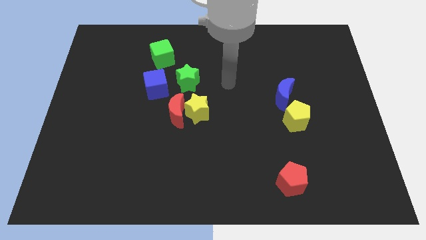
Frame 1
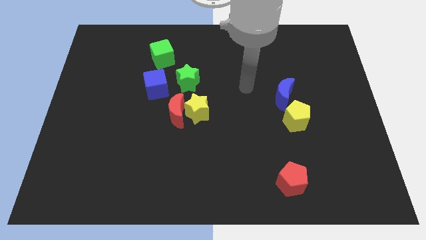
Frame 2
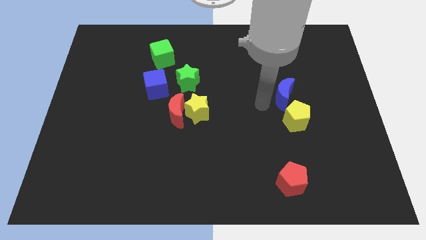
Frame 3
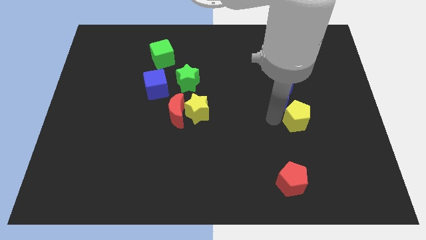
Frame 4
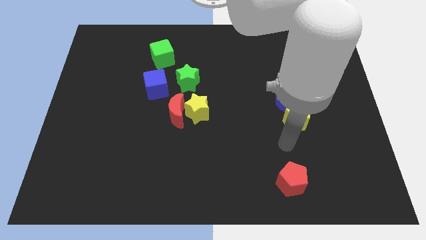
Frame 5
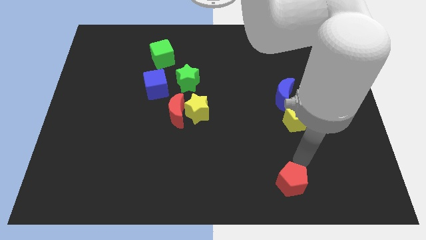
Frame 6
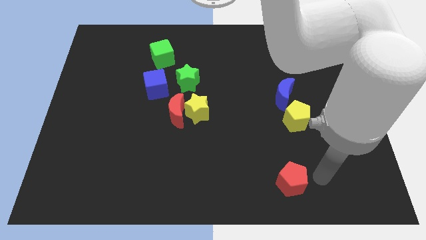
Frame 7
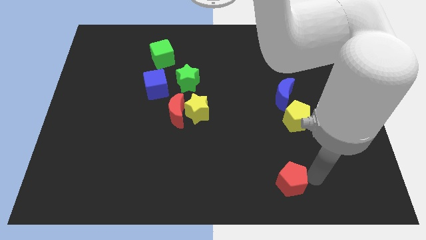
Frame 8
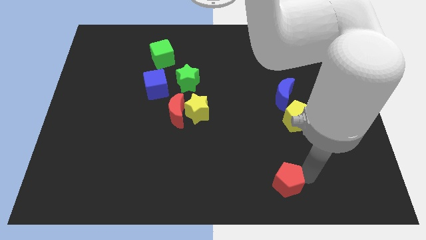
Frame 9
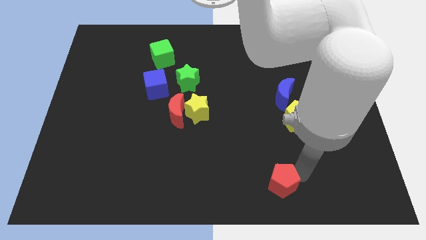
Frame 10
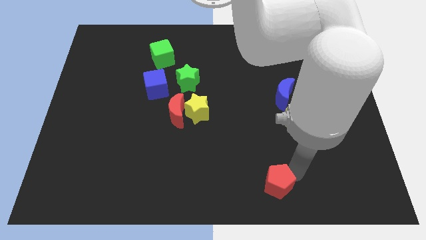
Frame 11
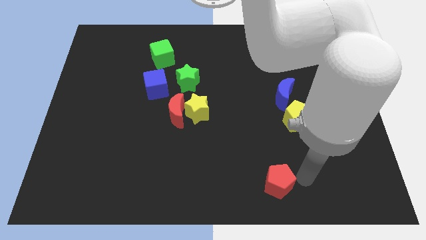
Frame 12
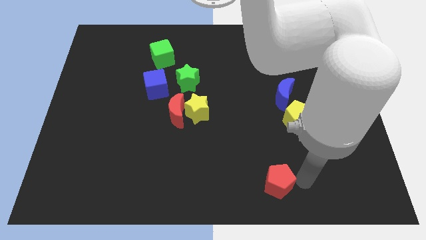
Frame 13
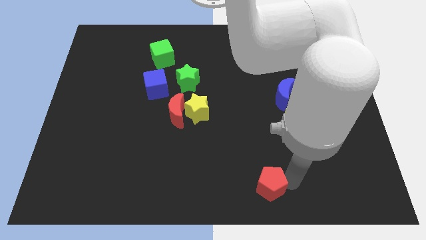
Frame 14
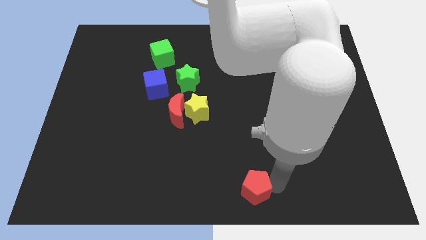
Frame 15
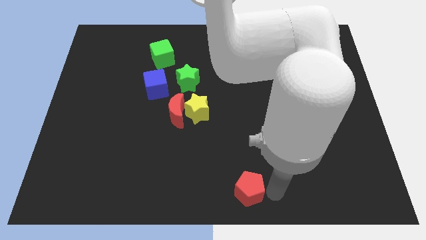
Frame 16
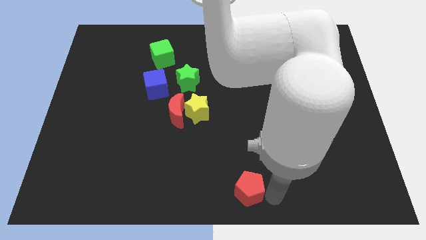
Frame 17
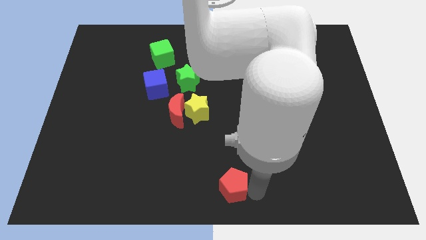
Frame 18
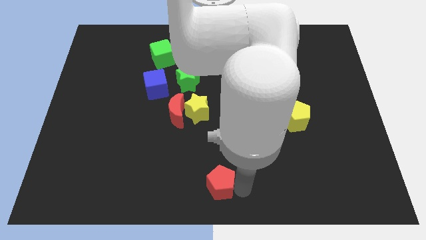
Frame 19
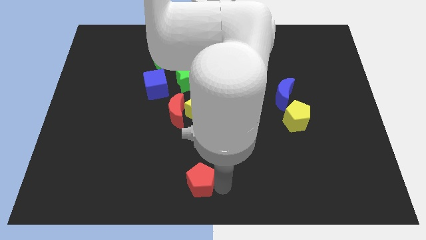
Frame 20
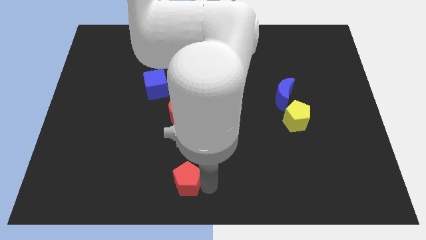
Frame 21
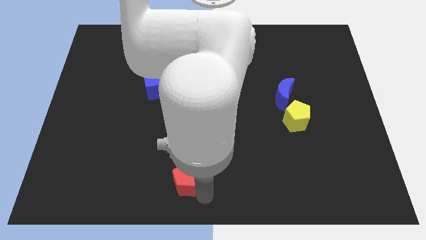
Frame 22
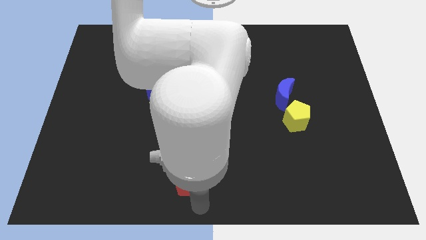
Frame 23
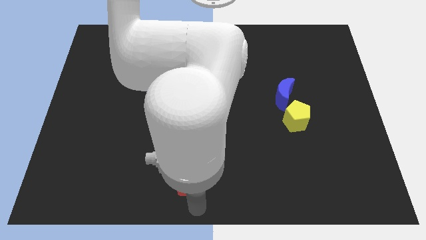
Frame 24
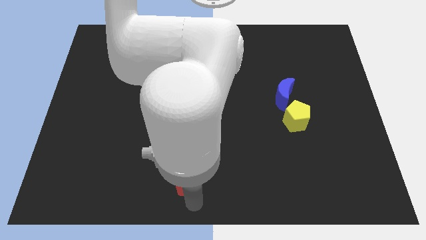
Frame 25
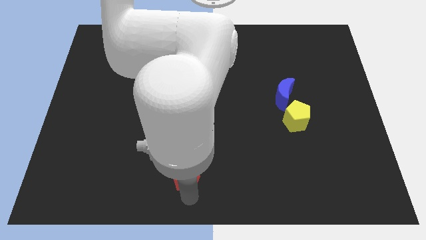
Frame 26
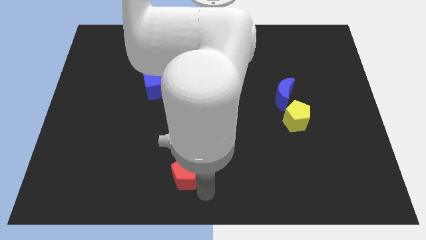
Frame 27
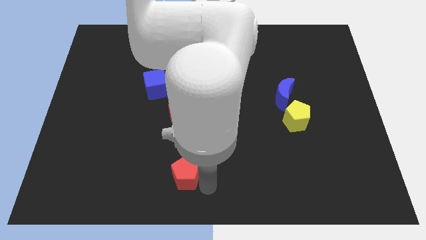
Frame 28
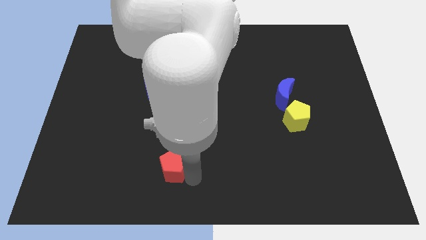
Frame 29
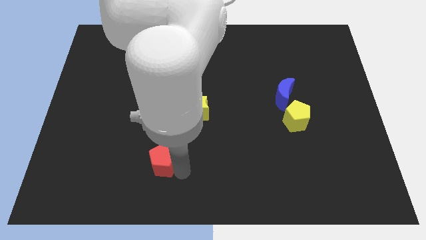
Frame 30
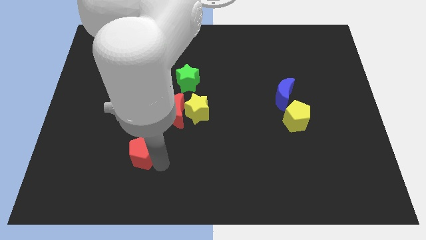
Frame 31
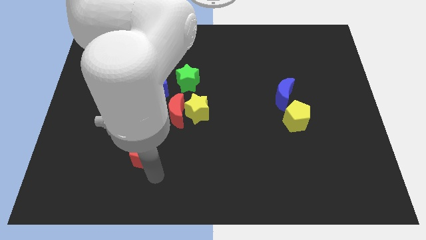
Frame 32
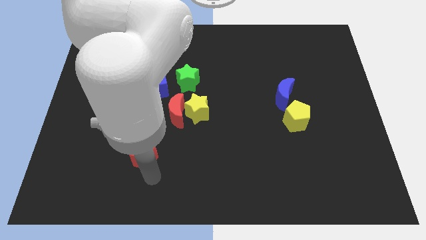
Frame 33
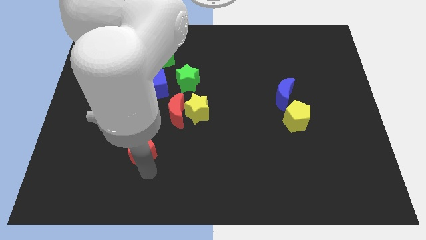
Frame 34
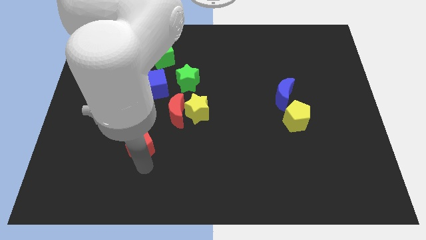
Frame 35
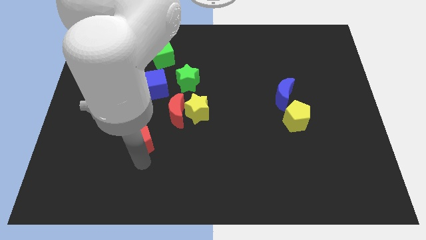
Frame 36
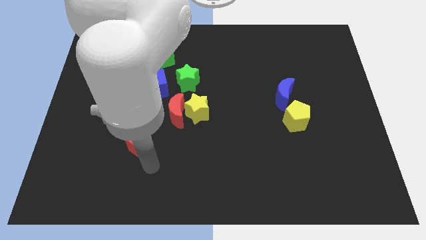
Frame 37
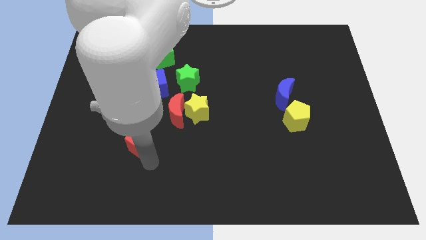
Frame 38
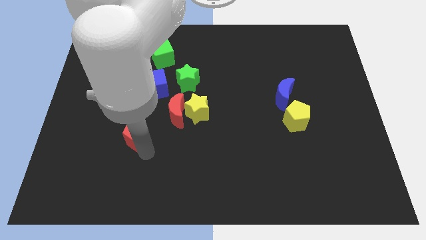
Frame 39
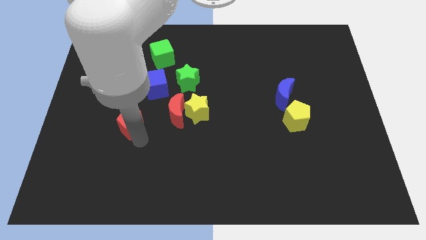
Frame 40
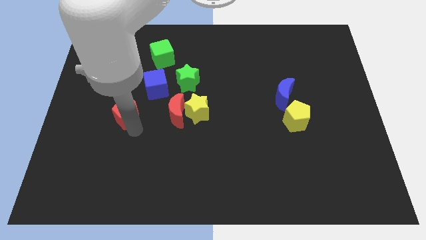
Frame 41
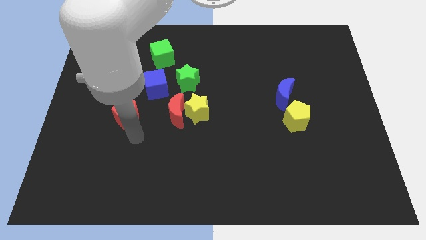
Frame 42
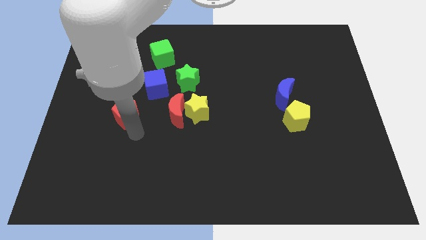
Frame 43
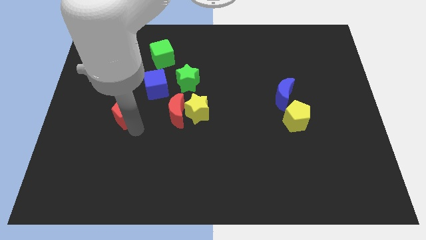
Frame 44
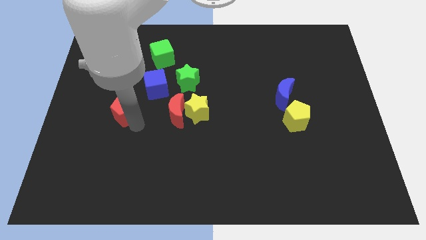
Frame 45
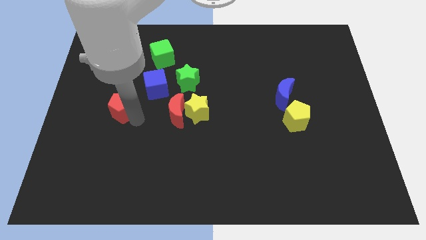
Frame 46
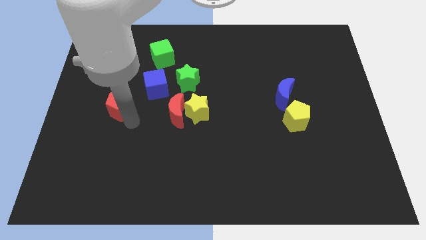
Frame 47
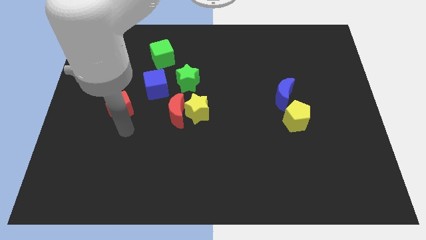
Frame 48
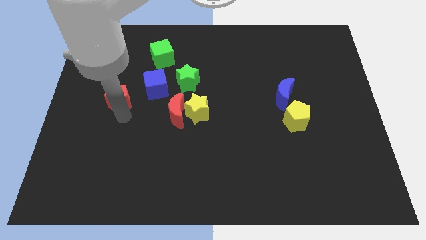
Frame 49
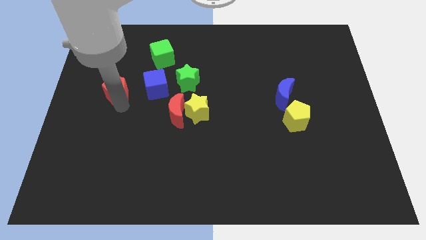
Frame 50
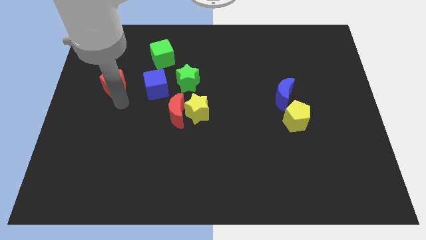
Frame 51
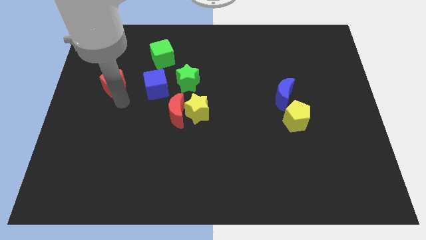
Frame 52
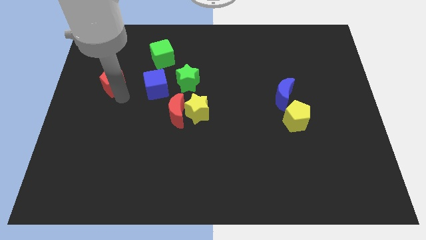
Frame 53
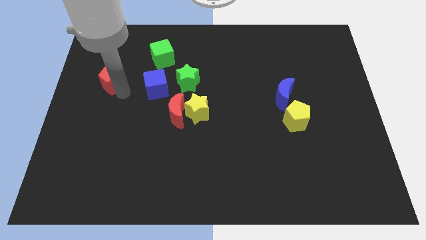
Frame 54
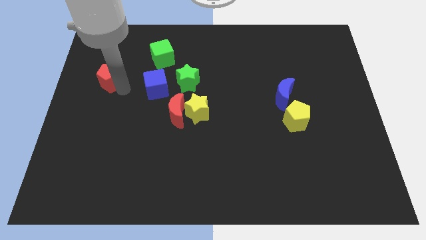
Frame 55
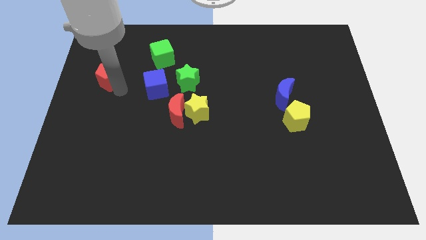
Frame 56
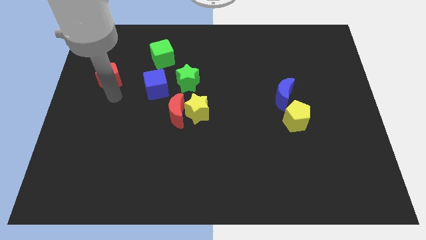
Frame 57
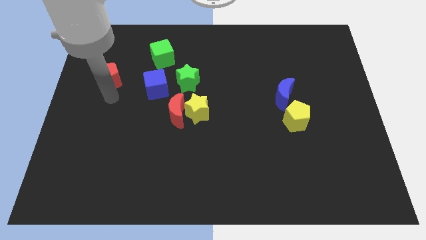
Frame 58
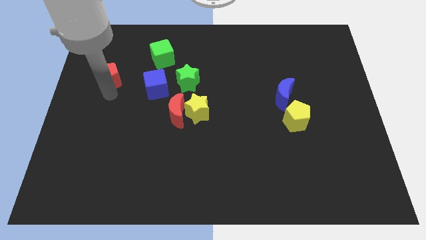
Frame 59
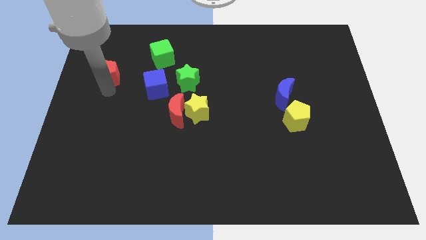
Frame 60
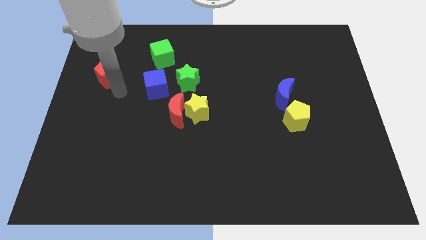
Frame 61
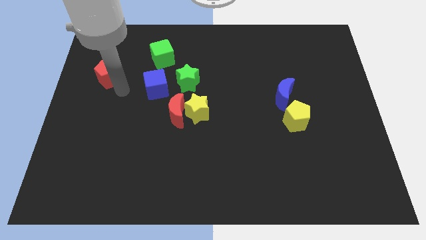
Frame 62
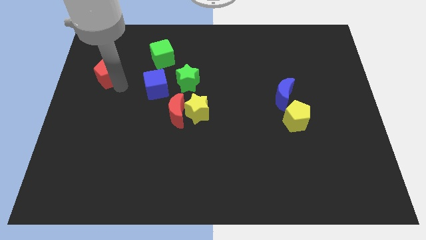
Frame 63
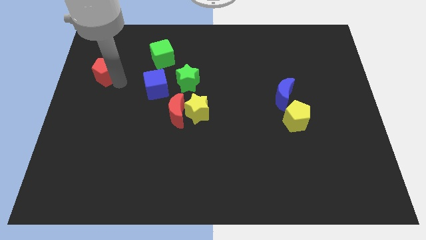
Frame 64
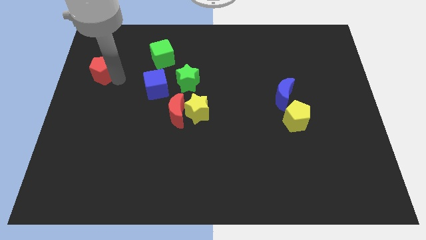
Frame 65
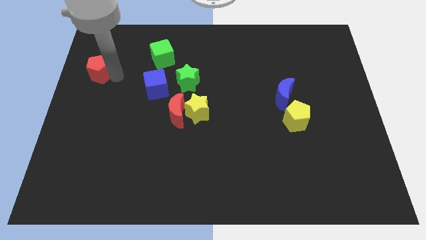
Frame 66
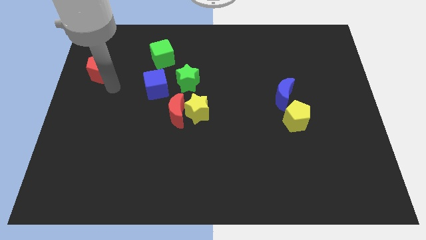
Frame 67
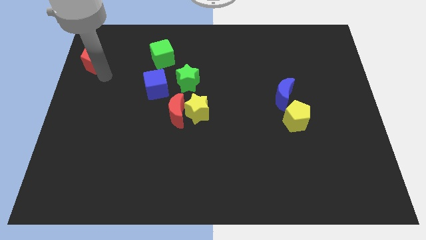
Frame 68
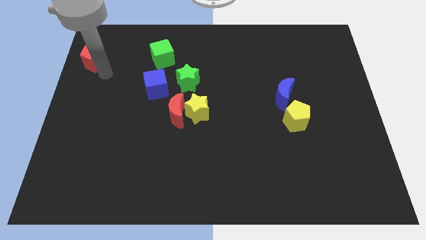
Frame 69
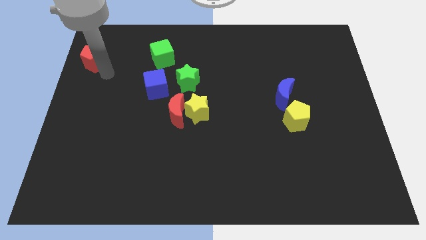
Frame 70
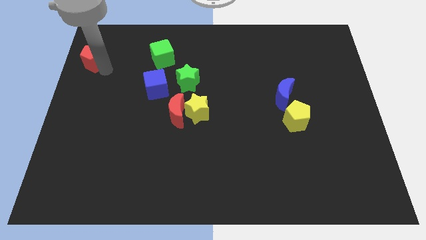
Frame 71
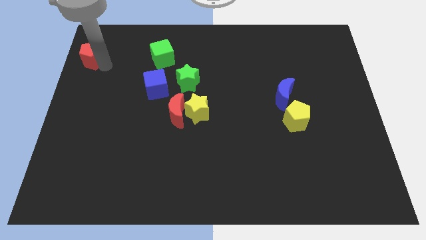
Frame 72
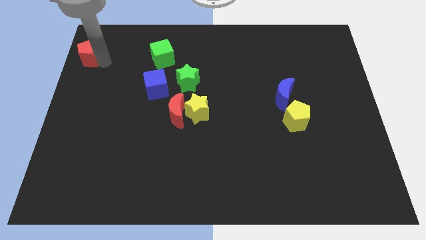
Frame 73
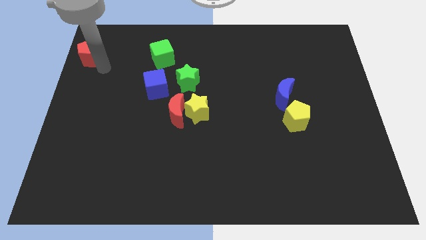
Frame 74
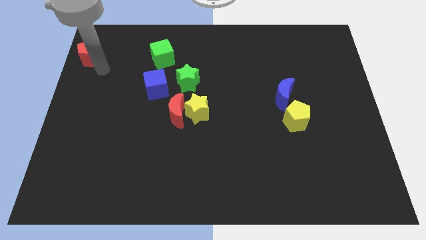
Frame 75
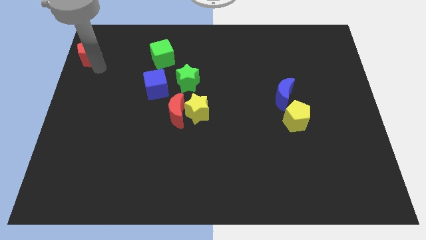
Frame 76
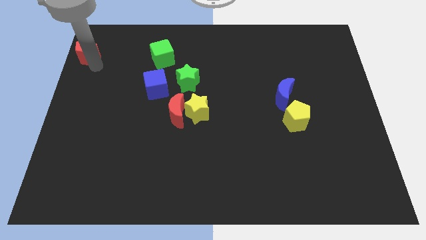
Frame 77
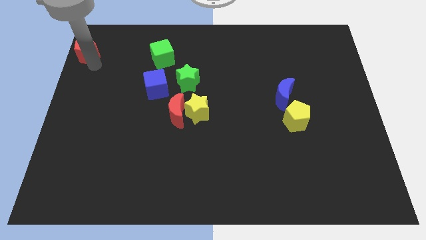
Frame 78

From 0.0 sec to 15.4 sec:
slide the red pentagon to the top left corner
